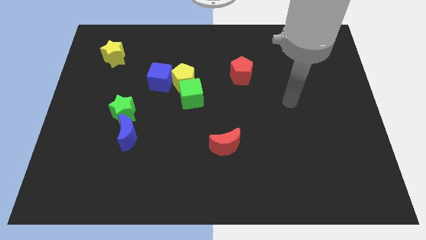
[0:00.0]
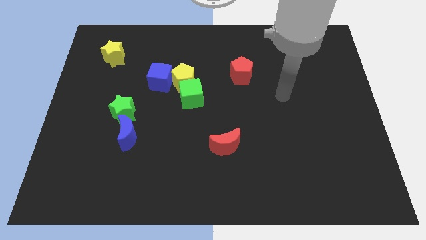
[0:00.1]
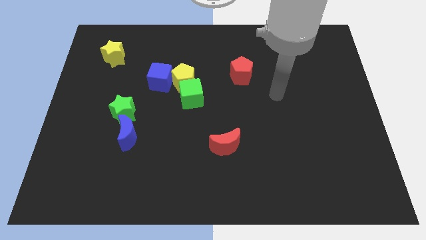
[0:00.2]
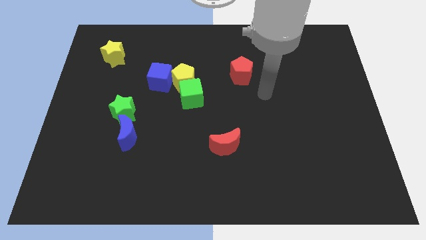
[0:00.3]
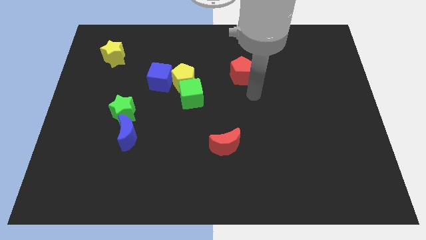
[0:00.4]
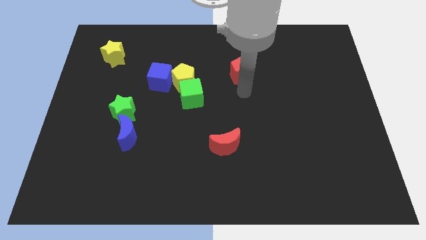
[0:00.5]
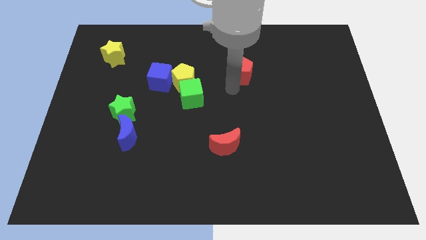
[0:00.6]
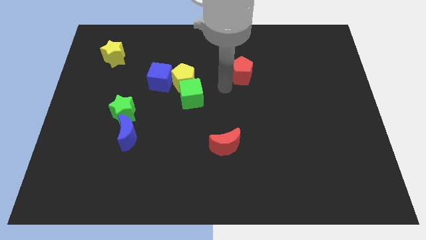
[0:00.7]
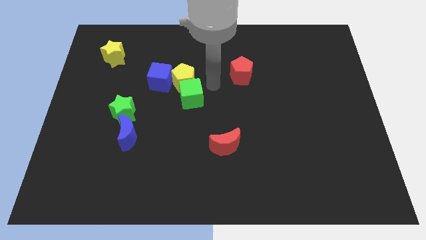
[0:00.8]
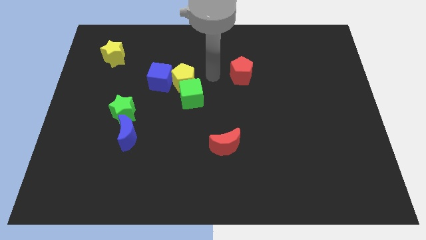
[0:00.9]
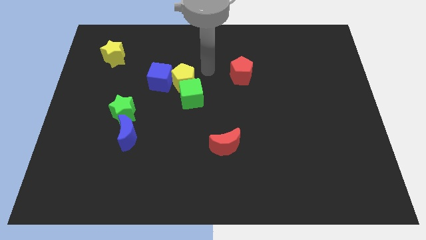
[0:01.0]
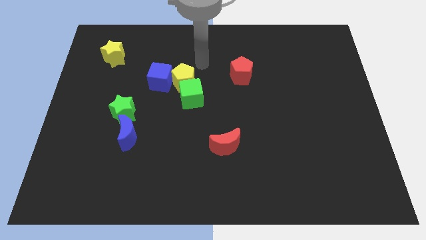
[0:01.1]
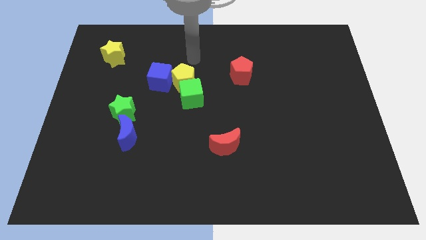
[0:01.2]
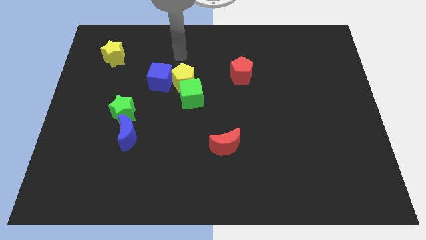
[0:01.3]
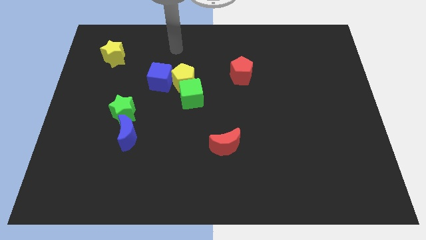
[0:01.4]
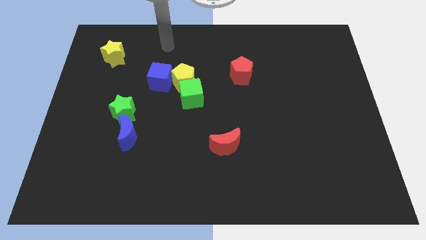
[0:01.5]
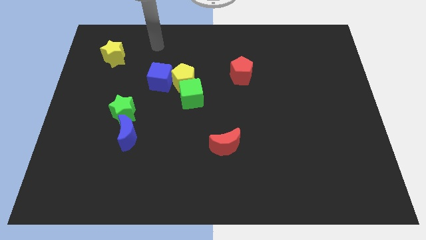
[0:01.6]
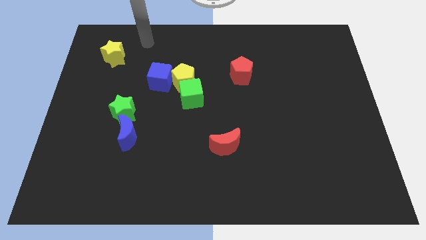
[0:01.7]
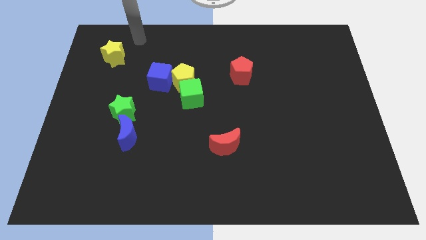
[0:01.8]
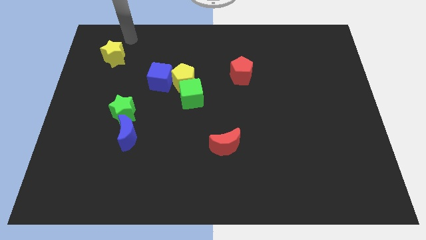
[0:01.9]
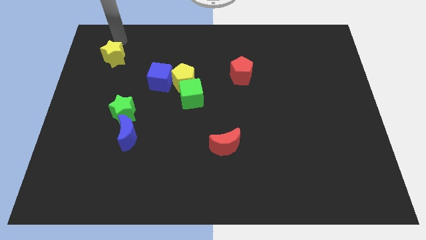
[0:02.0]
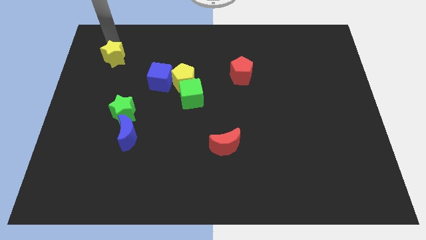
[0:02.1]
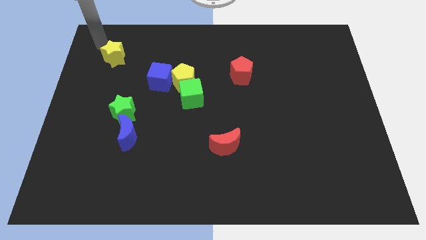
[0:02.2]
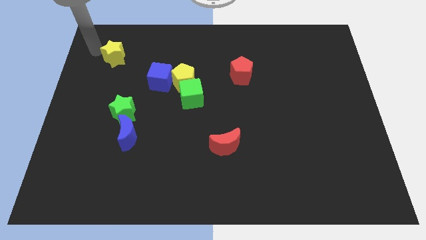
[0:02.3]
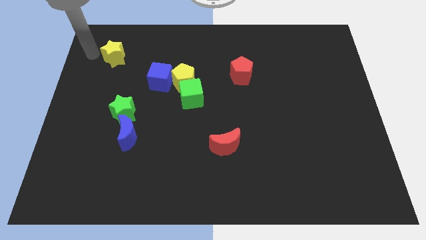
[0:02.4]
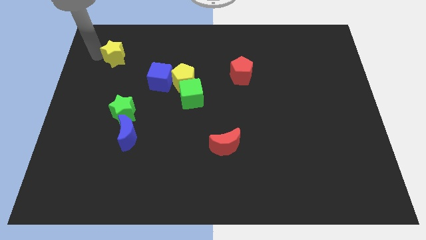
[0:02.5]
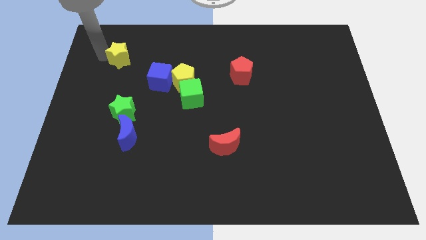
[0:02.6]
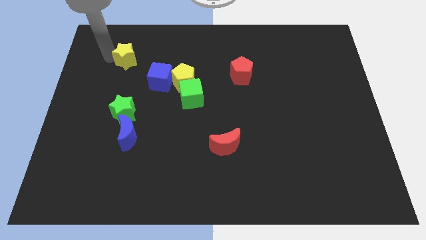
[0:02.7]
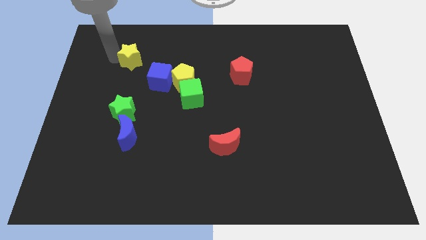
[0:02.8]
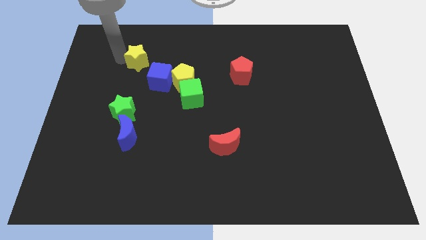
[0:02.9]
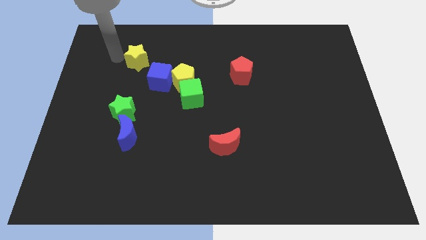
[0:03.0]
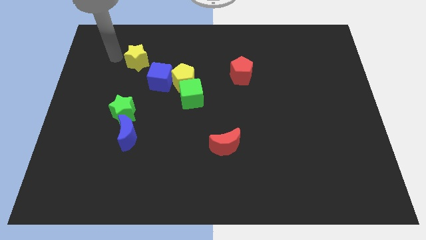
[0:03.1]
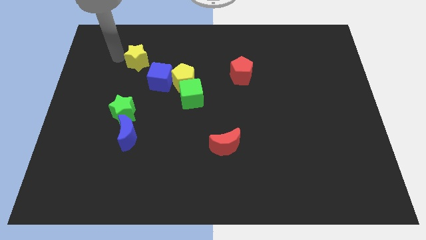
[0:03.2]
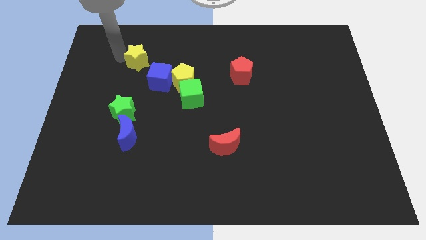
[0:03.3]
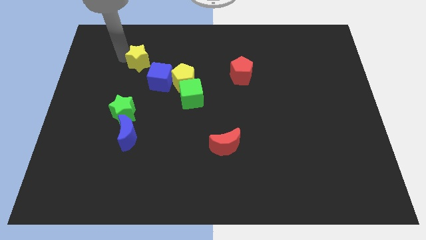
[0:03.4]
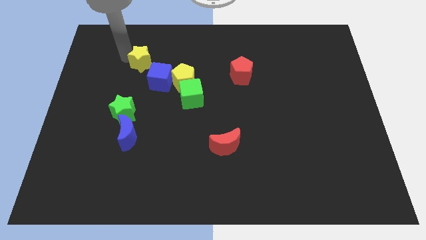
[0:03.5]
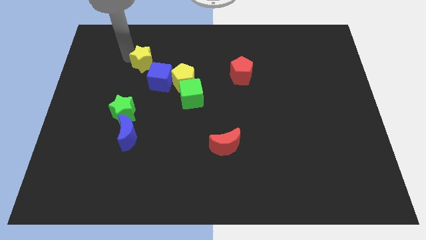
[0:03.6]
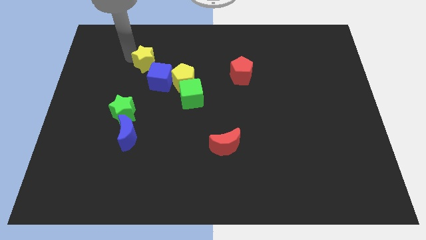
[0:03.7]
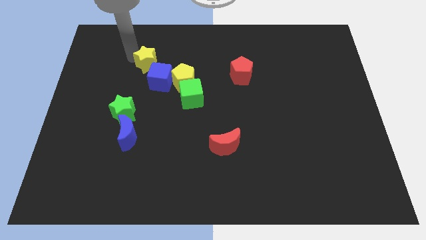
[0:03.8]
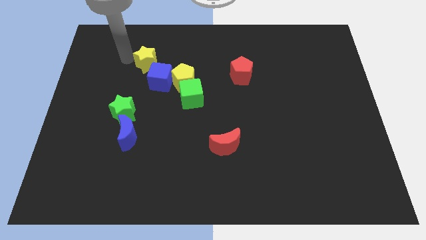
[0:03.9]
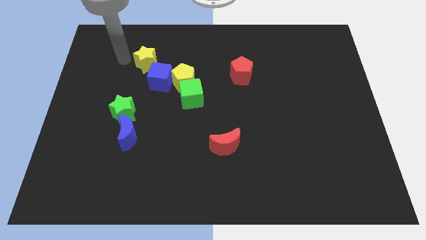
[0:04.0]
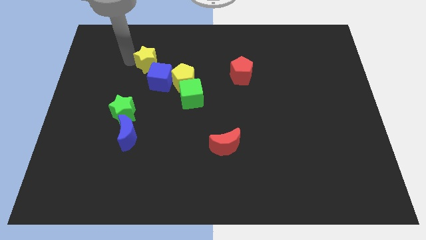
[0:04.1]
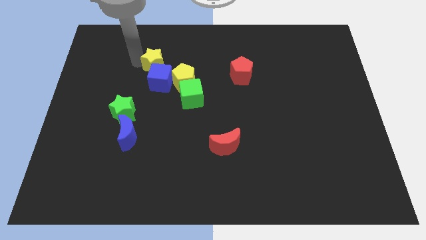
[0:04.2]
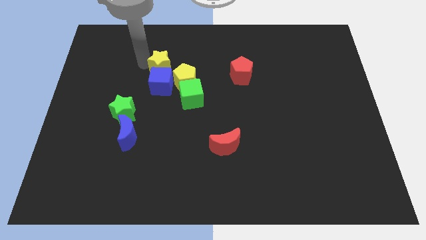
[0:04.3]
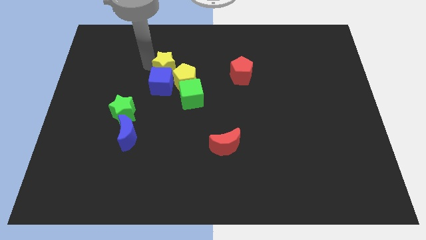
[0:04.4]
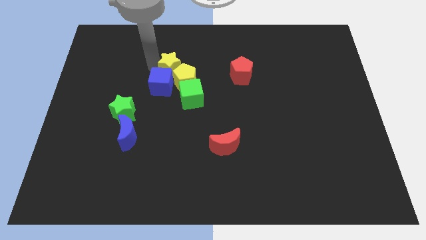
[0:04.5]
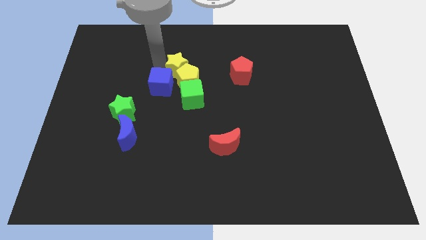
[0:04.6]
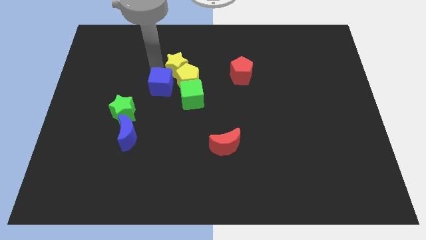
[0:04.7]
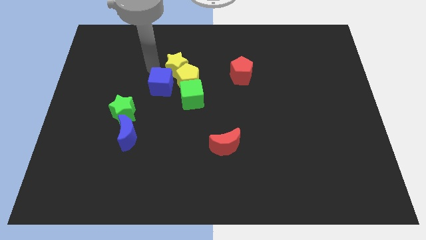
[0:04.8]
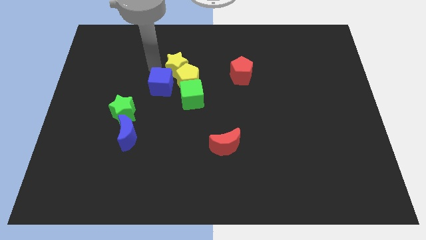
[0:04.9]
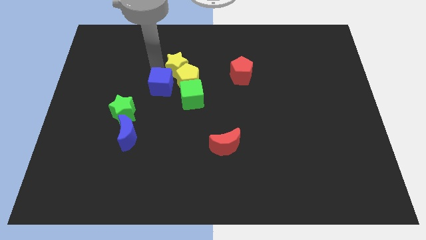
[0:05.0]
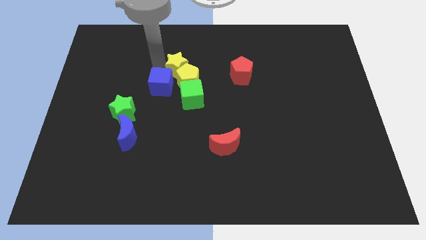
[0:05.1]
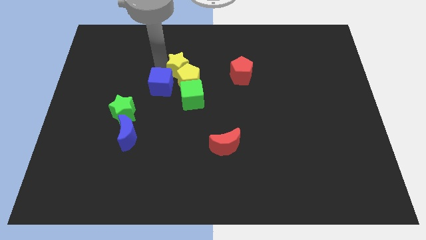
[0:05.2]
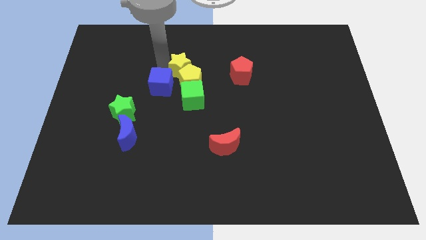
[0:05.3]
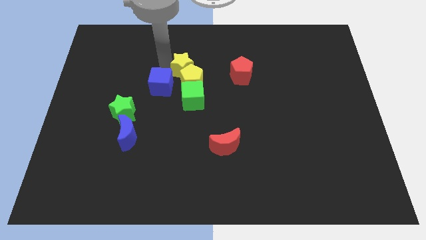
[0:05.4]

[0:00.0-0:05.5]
move the yellow star to the center of the board

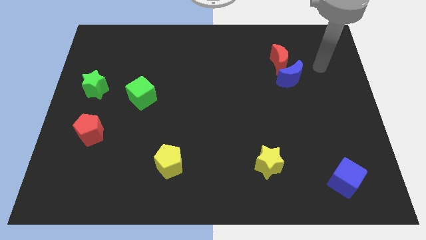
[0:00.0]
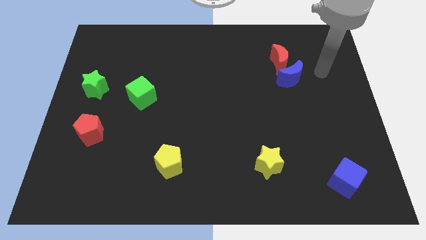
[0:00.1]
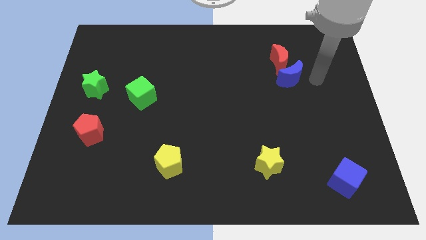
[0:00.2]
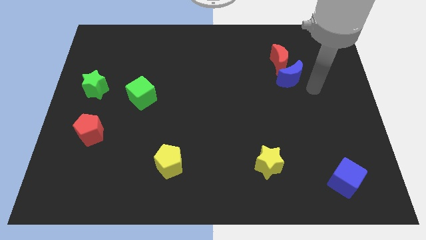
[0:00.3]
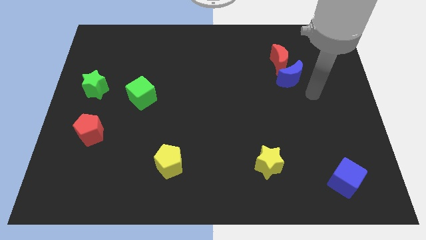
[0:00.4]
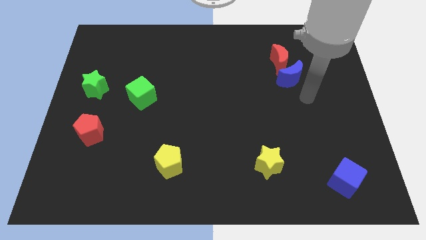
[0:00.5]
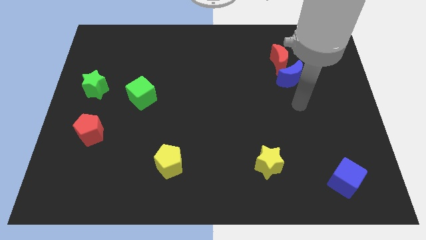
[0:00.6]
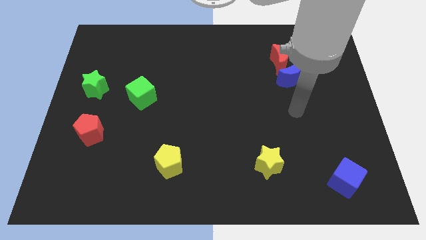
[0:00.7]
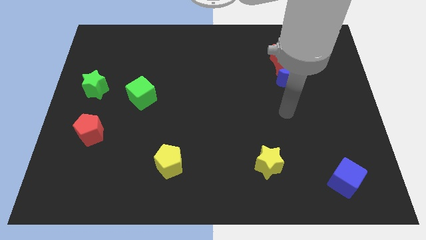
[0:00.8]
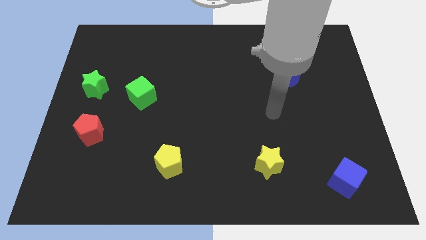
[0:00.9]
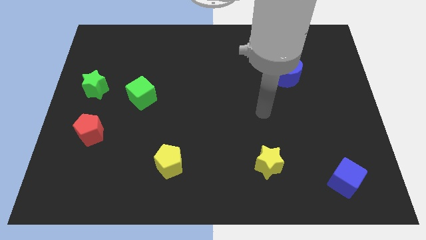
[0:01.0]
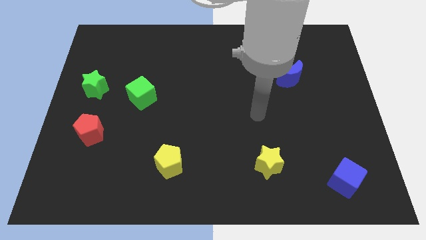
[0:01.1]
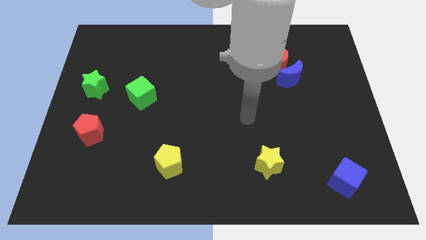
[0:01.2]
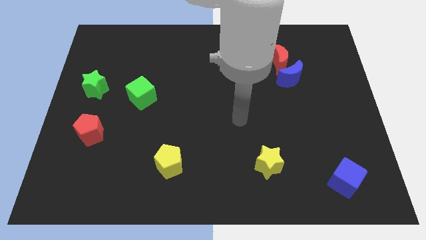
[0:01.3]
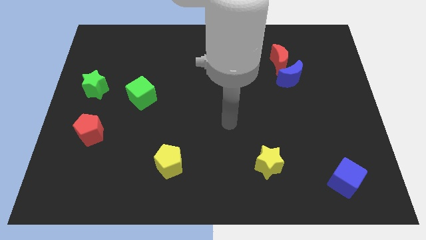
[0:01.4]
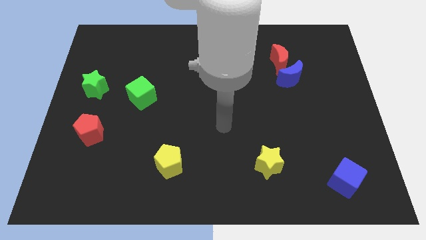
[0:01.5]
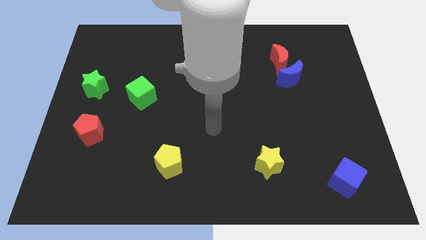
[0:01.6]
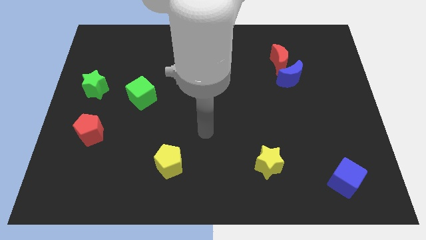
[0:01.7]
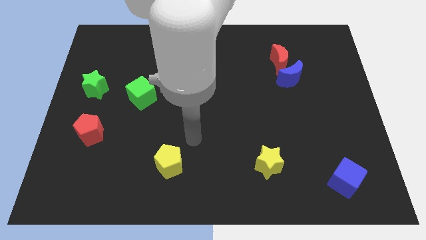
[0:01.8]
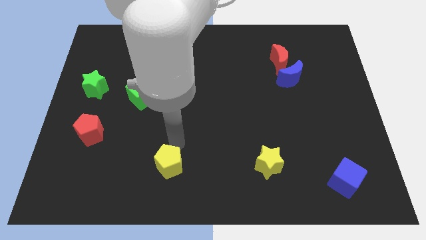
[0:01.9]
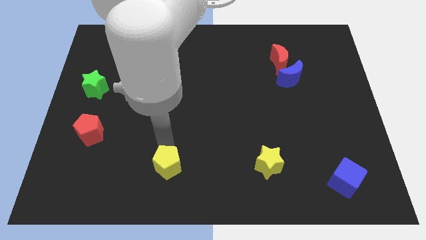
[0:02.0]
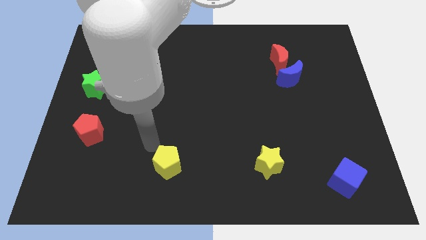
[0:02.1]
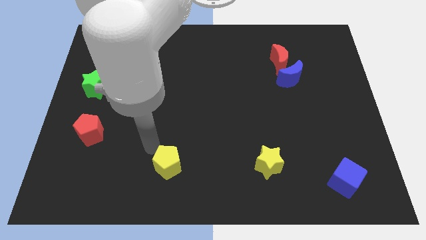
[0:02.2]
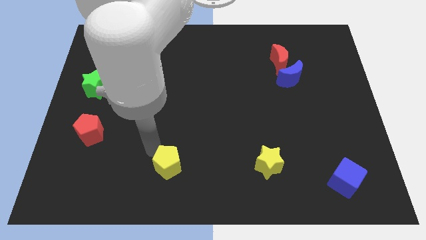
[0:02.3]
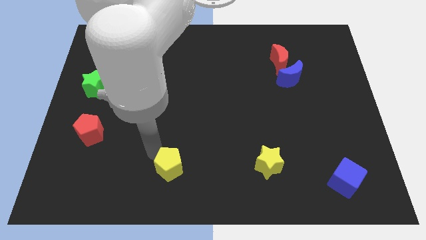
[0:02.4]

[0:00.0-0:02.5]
put the yellow pentagon to the bottom side

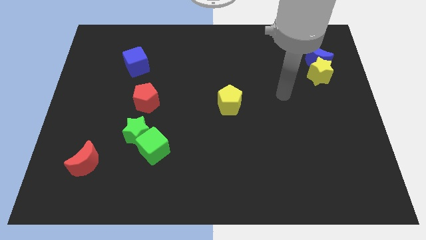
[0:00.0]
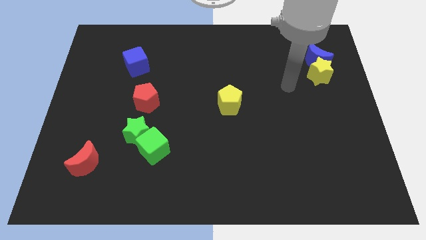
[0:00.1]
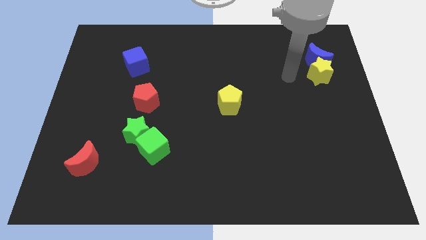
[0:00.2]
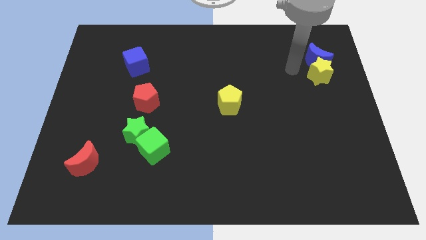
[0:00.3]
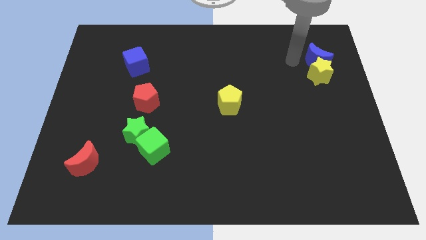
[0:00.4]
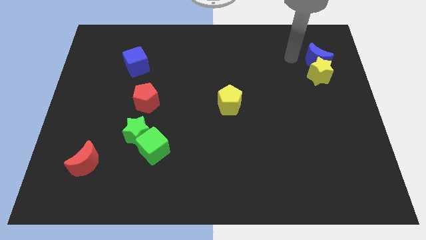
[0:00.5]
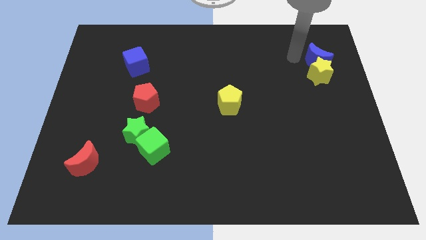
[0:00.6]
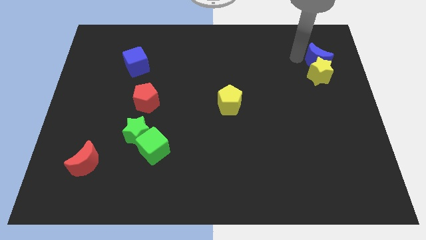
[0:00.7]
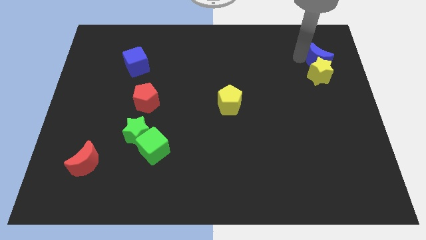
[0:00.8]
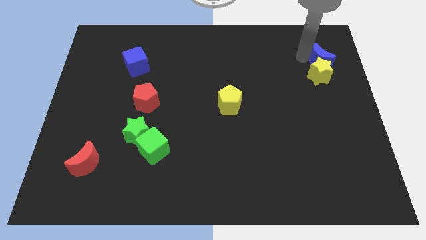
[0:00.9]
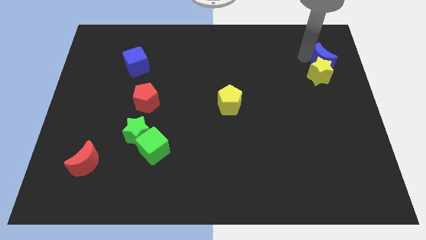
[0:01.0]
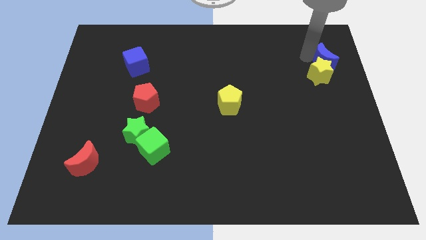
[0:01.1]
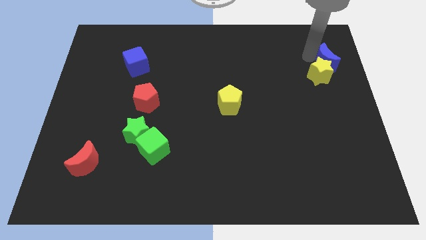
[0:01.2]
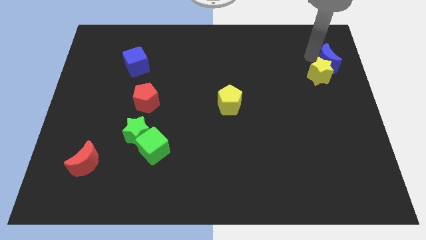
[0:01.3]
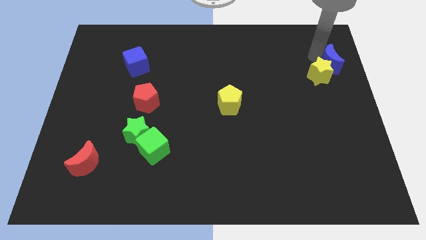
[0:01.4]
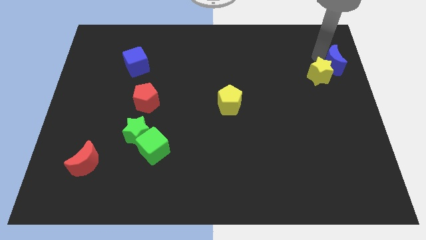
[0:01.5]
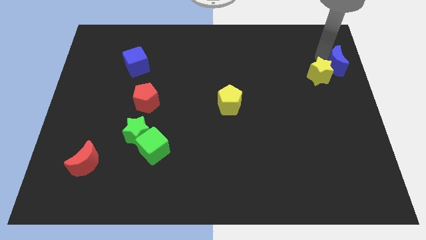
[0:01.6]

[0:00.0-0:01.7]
move the blue moon to the right side of the board
